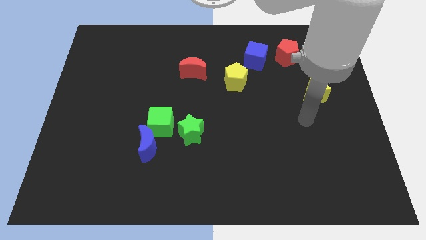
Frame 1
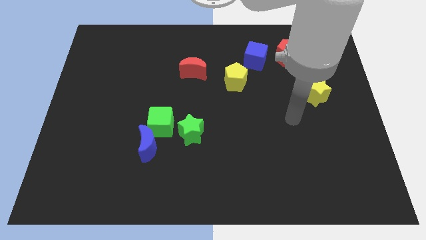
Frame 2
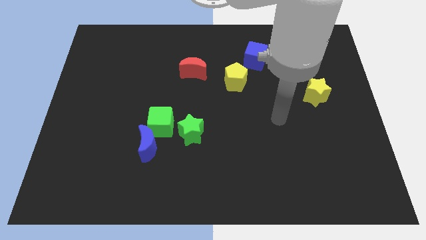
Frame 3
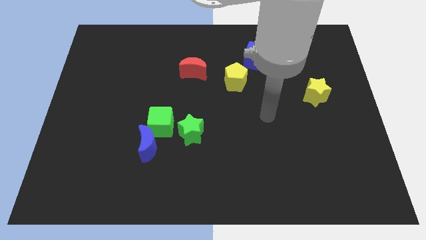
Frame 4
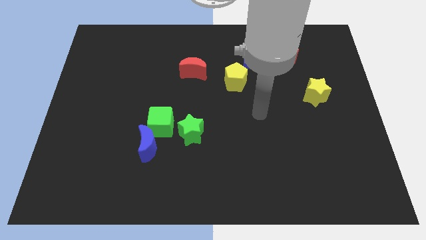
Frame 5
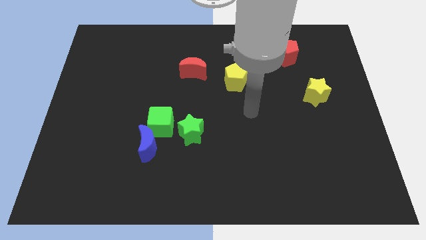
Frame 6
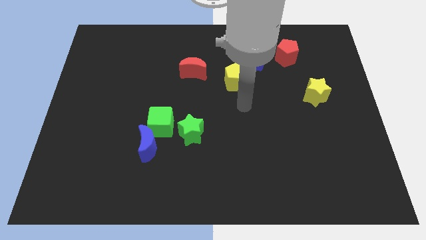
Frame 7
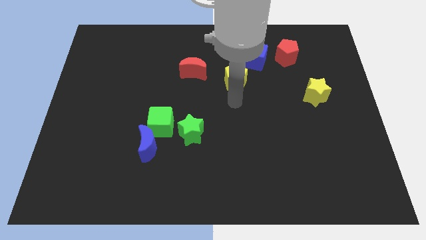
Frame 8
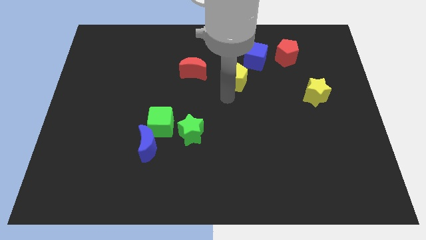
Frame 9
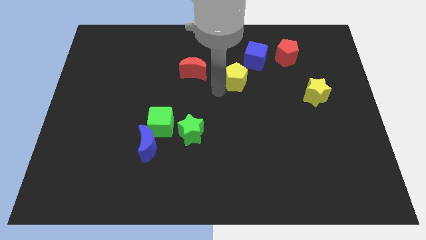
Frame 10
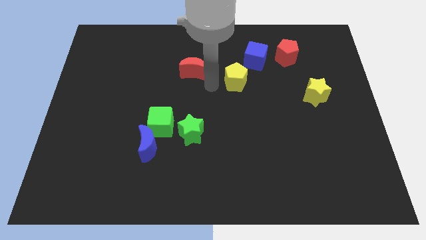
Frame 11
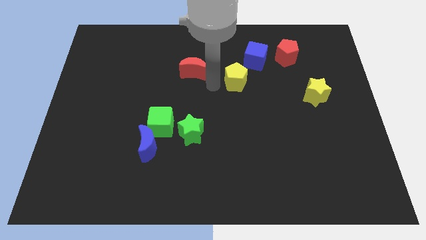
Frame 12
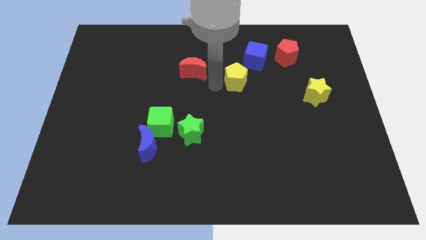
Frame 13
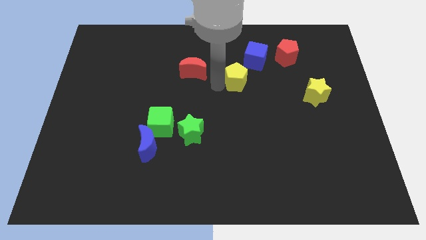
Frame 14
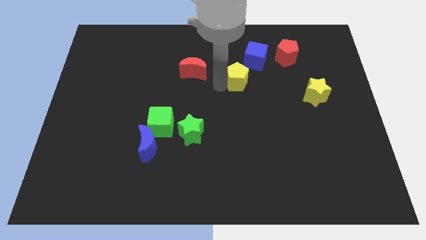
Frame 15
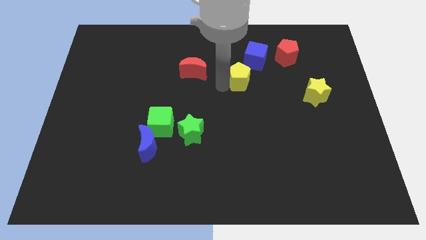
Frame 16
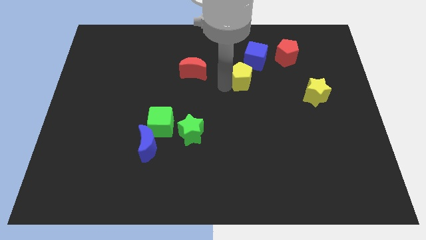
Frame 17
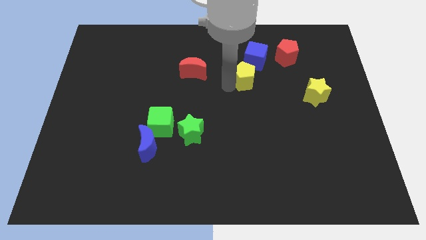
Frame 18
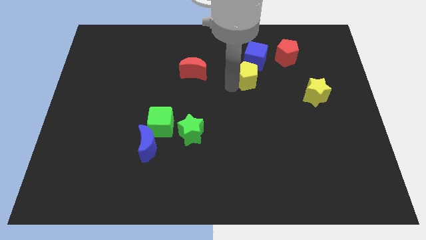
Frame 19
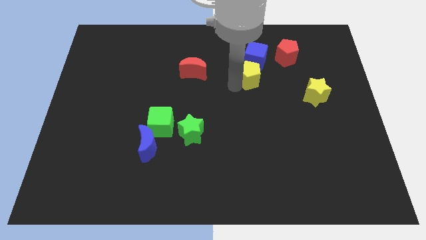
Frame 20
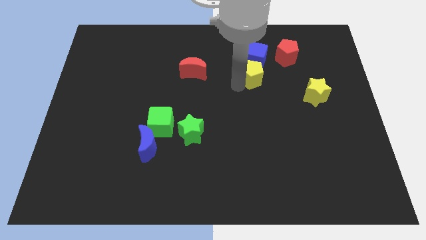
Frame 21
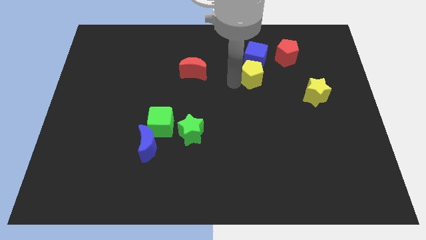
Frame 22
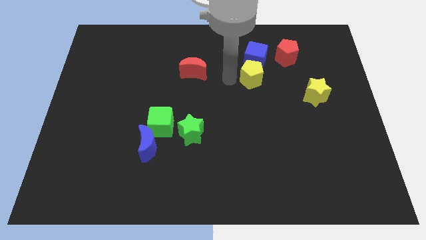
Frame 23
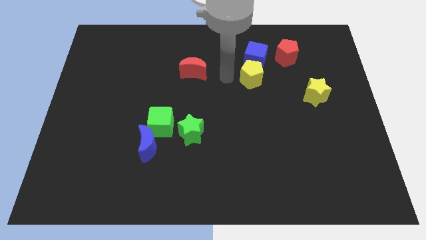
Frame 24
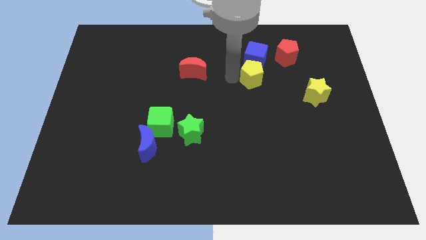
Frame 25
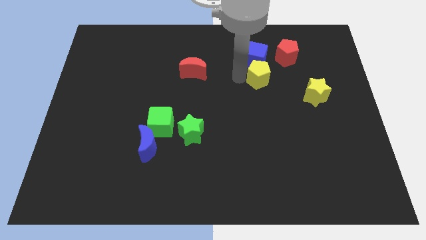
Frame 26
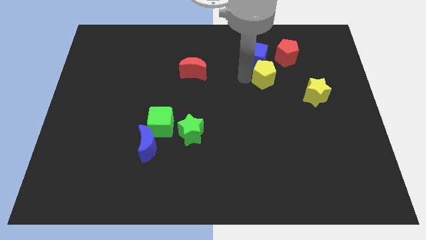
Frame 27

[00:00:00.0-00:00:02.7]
slide the yellow pentagon a little bit to the right

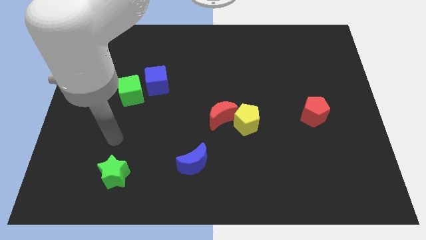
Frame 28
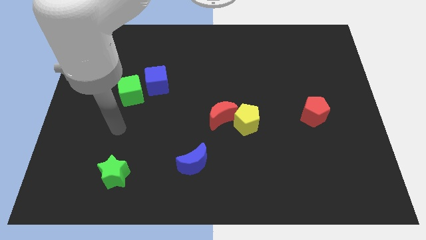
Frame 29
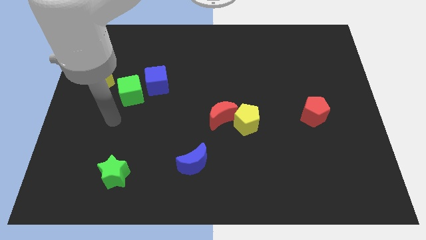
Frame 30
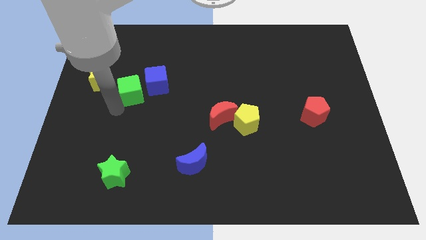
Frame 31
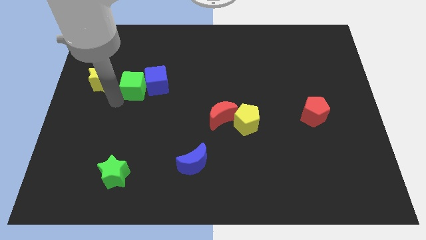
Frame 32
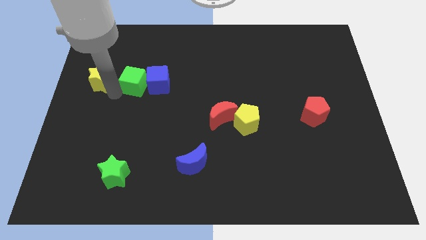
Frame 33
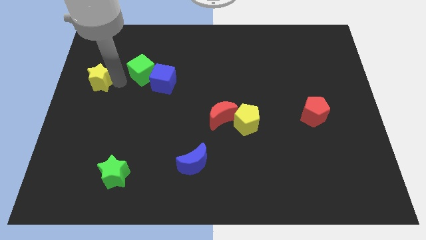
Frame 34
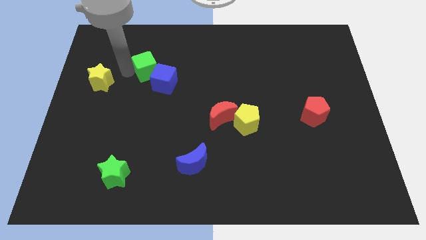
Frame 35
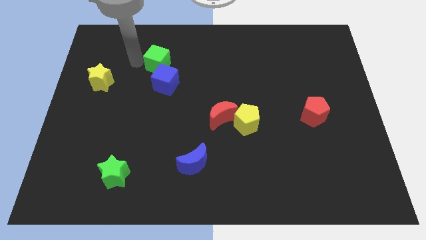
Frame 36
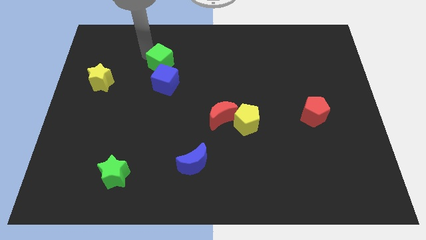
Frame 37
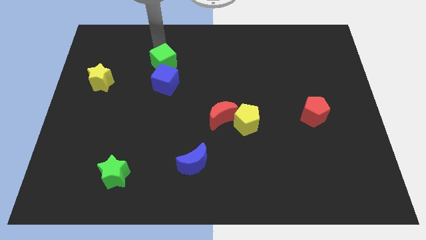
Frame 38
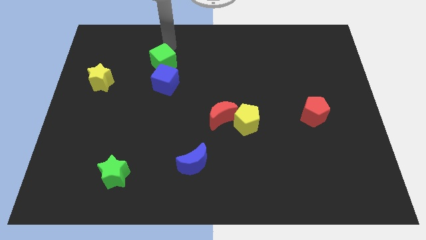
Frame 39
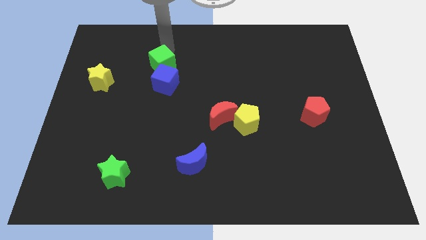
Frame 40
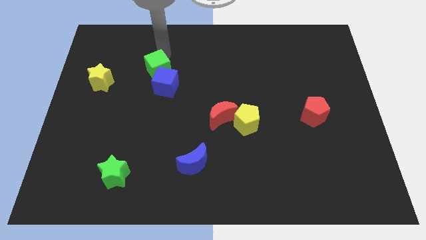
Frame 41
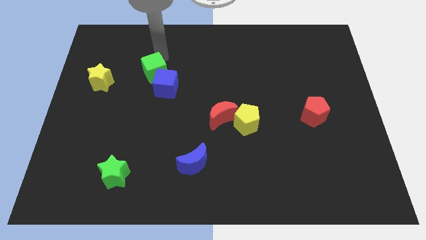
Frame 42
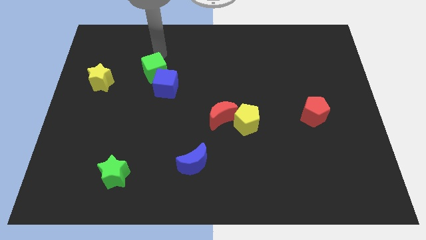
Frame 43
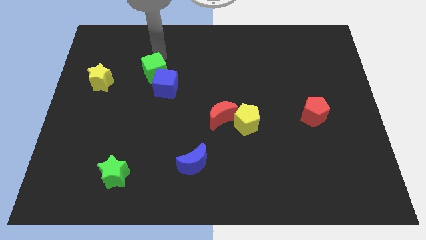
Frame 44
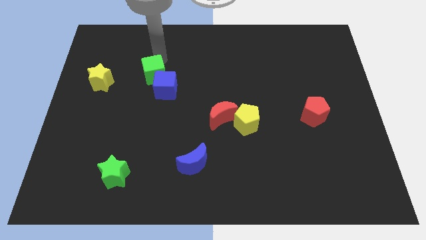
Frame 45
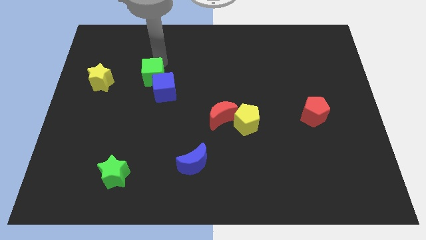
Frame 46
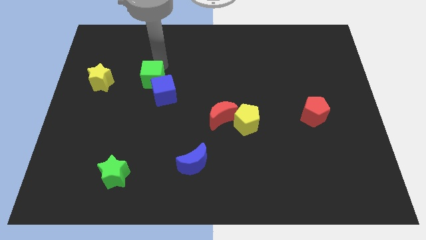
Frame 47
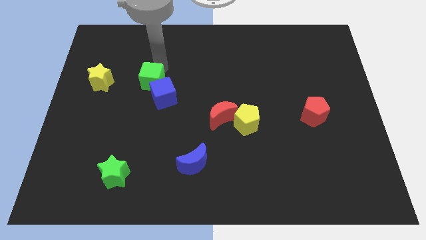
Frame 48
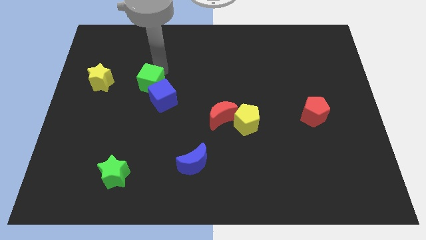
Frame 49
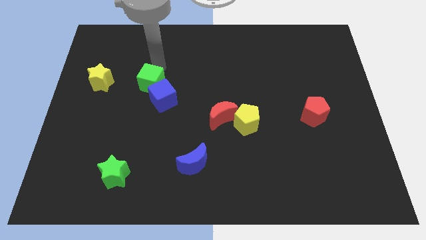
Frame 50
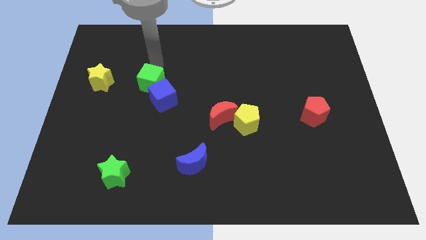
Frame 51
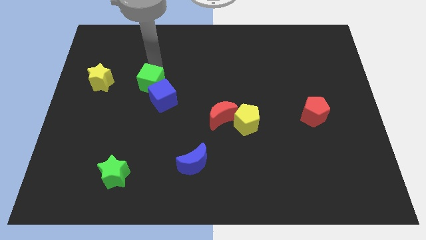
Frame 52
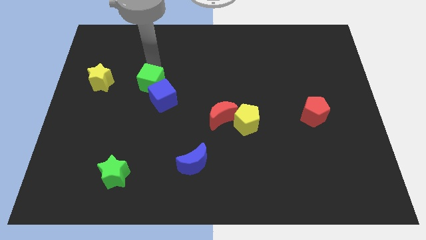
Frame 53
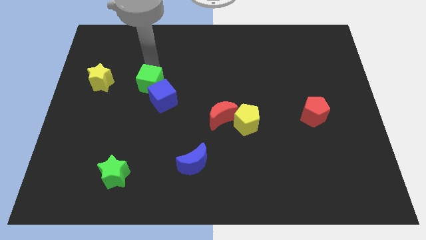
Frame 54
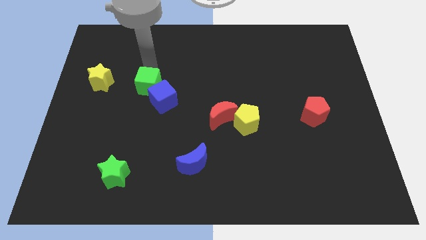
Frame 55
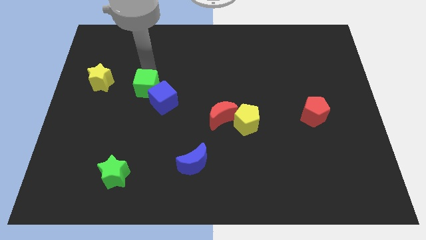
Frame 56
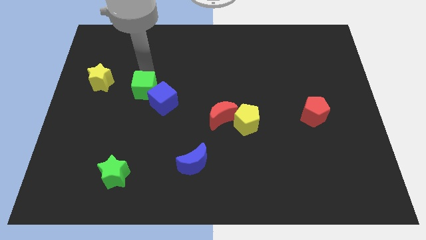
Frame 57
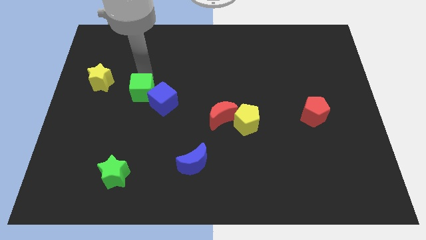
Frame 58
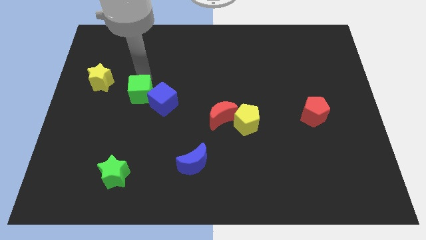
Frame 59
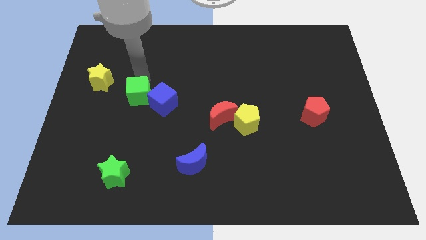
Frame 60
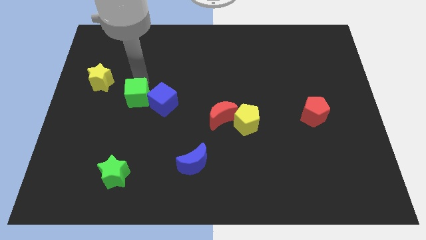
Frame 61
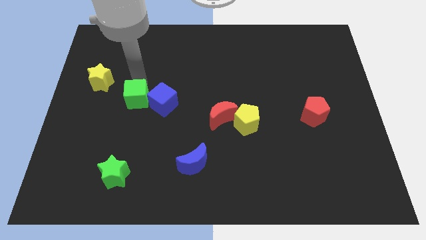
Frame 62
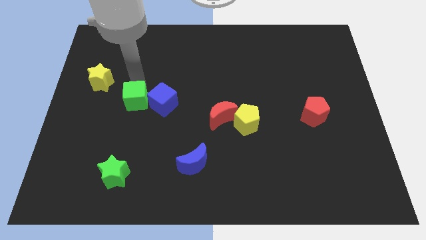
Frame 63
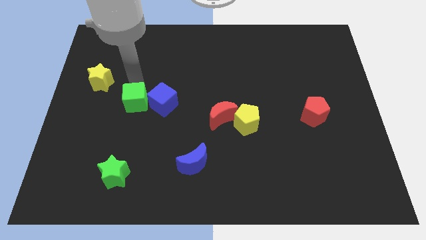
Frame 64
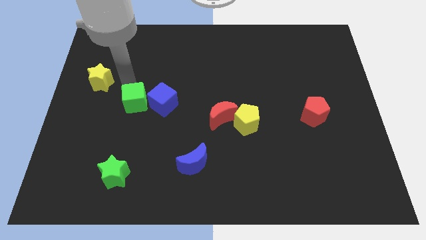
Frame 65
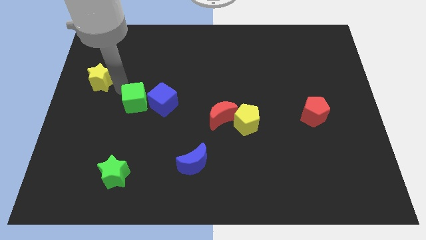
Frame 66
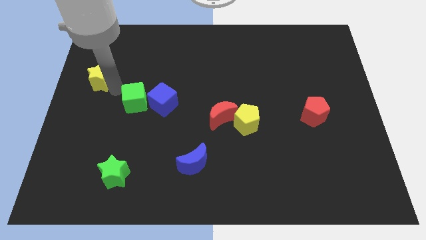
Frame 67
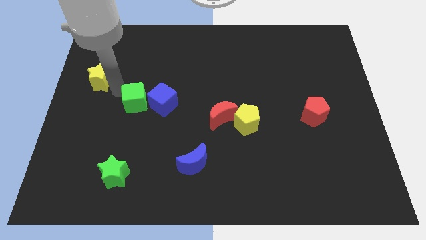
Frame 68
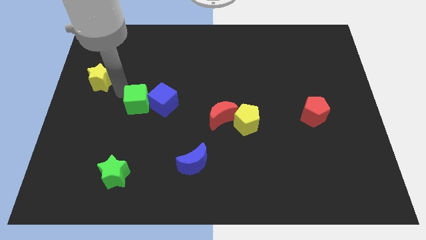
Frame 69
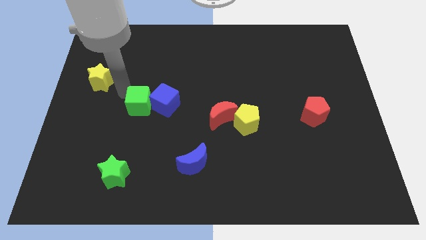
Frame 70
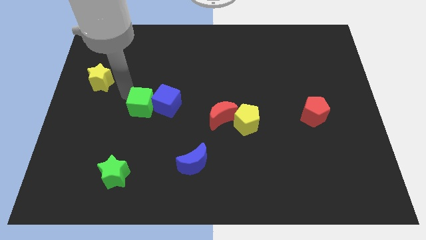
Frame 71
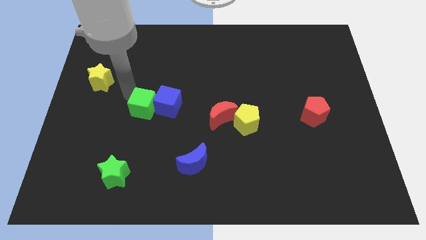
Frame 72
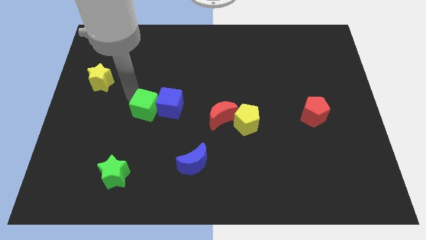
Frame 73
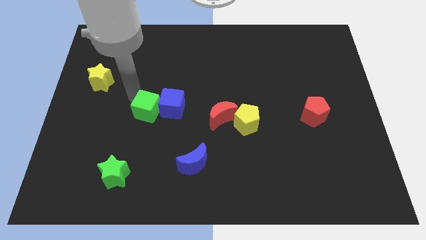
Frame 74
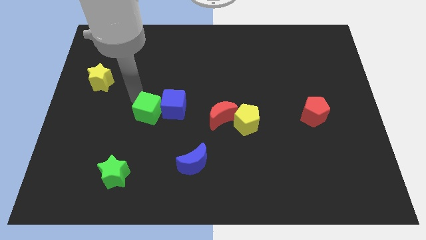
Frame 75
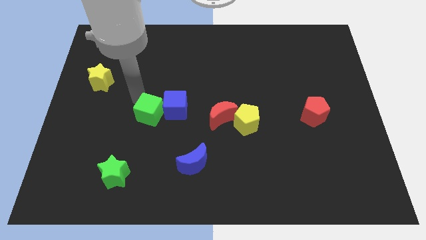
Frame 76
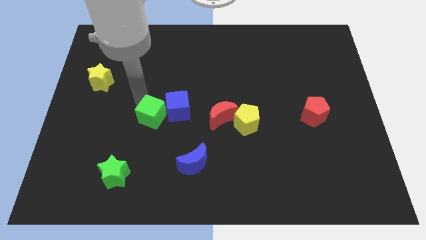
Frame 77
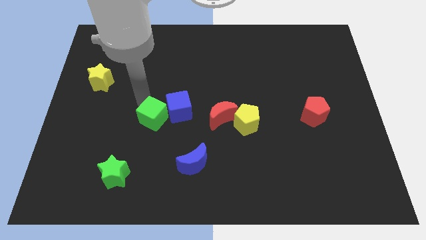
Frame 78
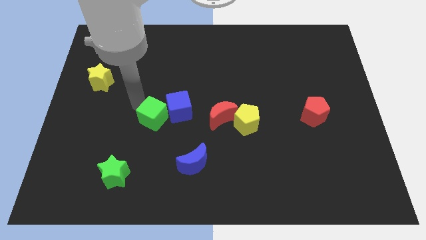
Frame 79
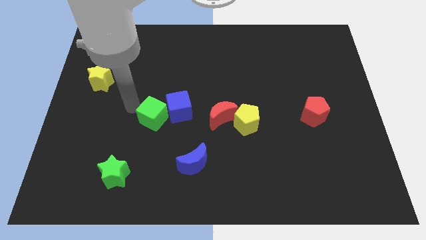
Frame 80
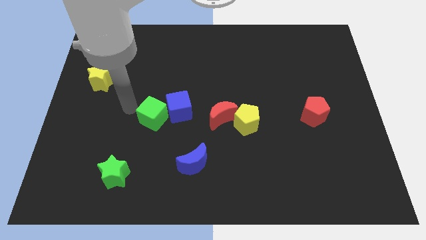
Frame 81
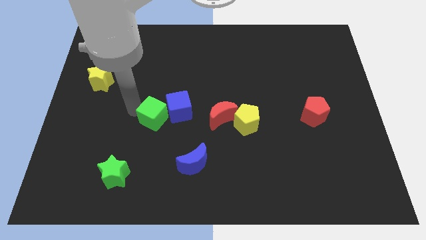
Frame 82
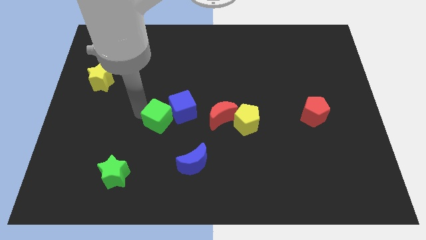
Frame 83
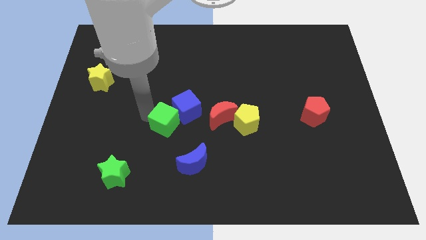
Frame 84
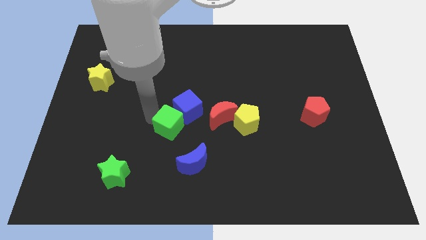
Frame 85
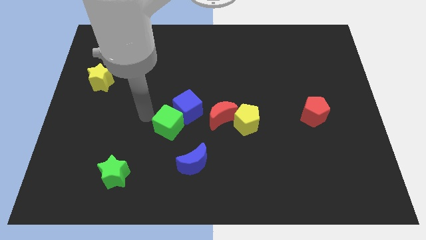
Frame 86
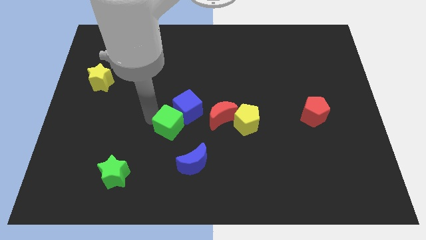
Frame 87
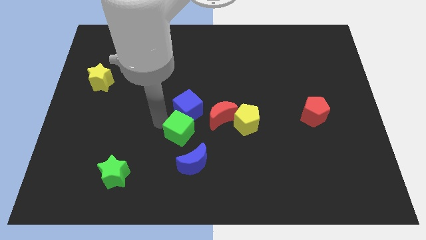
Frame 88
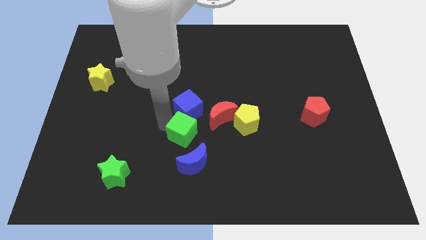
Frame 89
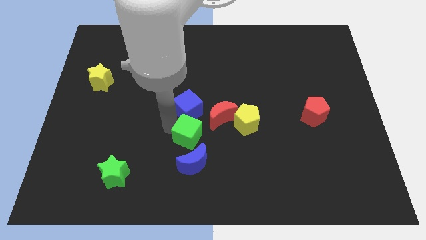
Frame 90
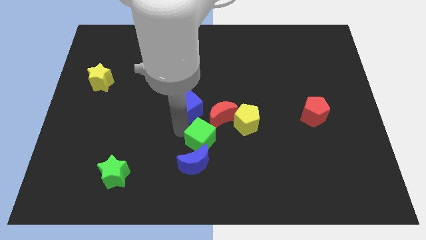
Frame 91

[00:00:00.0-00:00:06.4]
move the green cube down and then to the right
